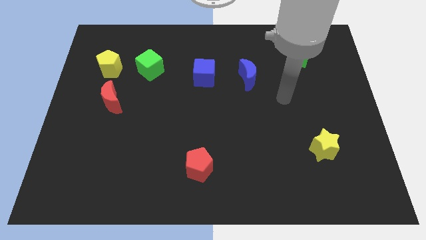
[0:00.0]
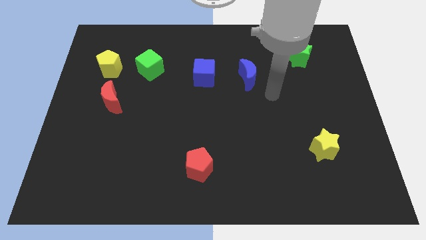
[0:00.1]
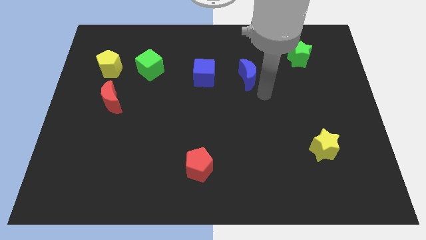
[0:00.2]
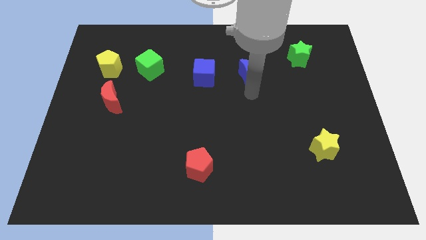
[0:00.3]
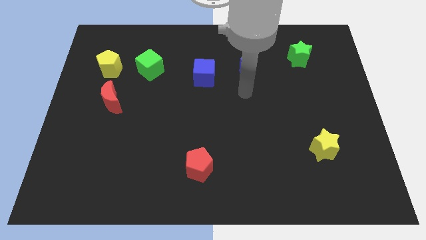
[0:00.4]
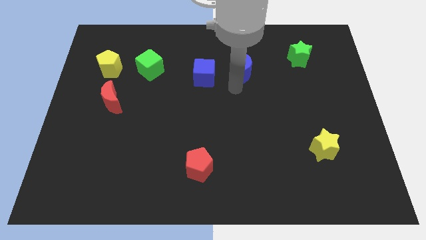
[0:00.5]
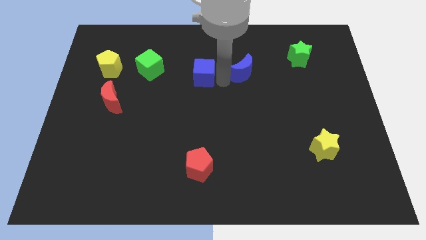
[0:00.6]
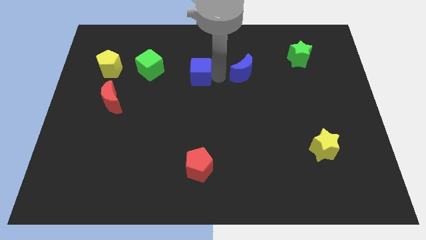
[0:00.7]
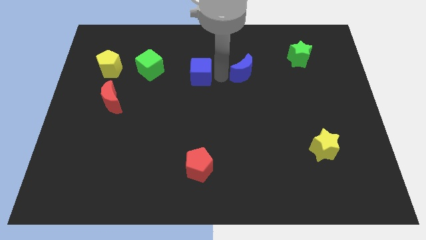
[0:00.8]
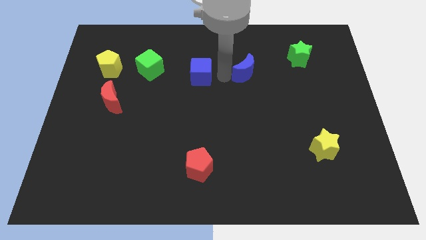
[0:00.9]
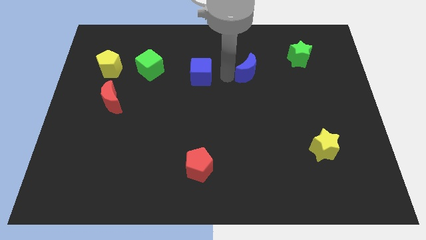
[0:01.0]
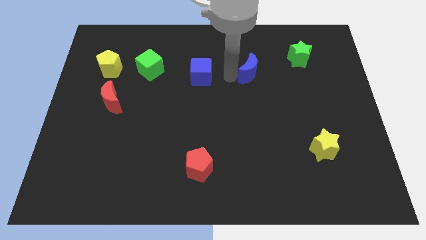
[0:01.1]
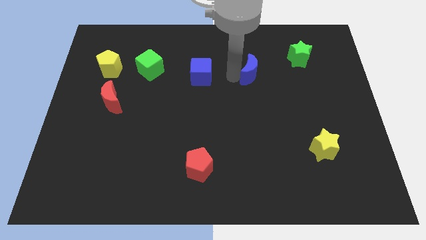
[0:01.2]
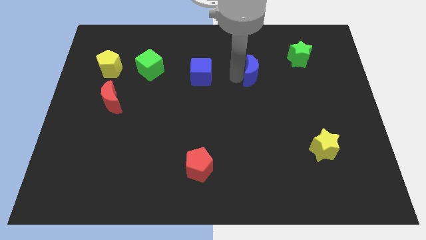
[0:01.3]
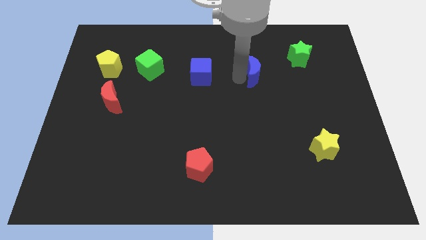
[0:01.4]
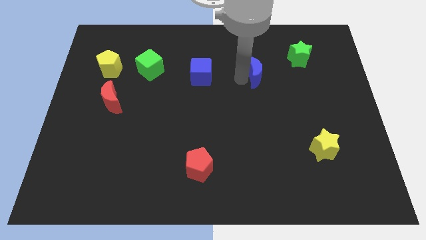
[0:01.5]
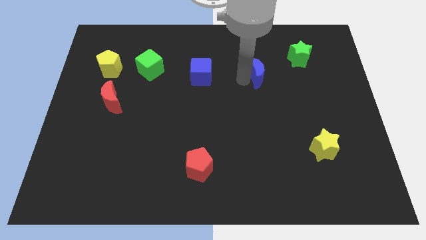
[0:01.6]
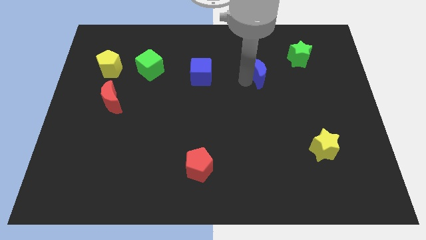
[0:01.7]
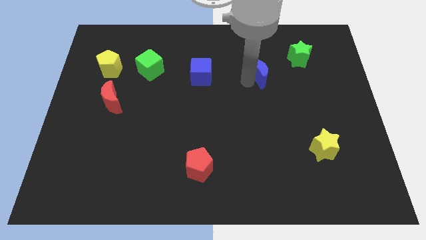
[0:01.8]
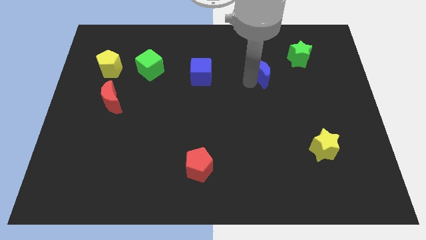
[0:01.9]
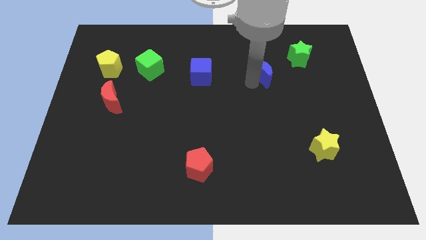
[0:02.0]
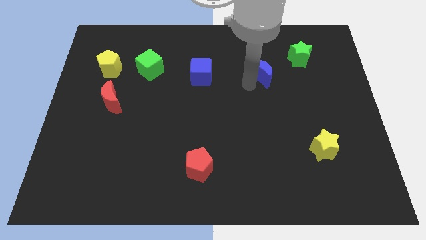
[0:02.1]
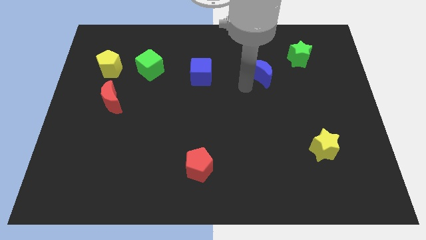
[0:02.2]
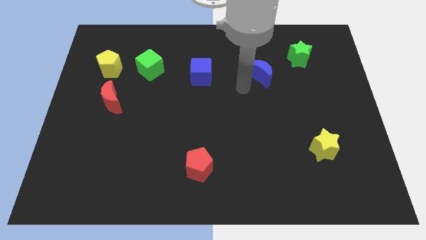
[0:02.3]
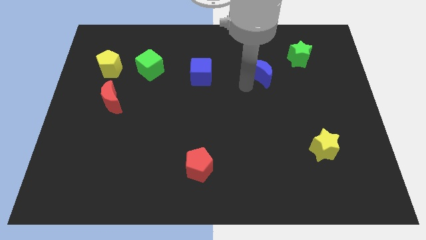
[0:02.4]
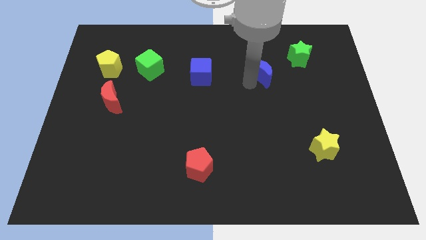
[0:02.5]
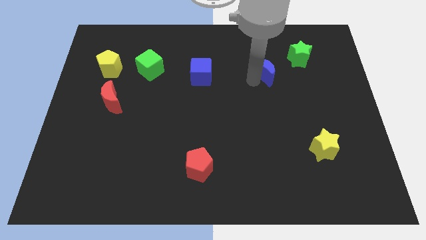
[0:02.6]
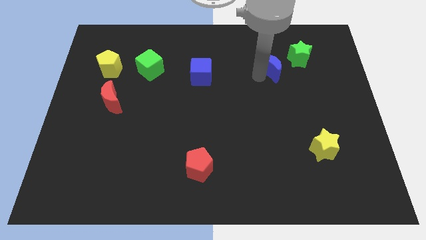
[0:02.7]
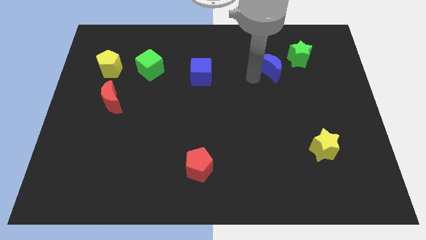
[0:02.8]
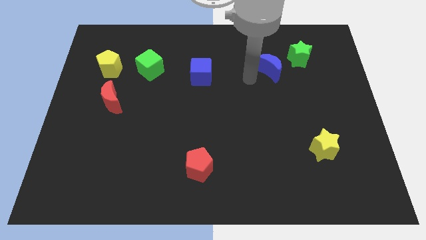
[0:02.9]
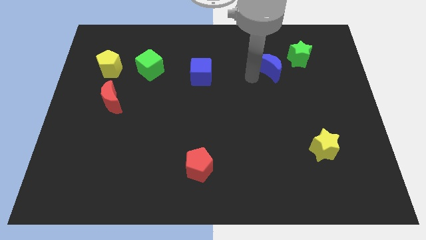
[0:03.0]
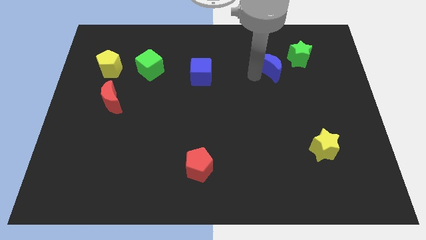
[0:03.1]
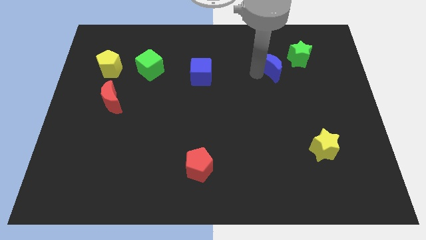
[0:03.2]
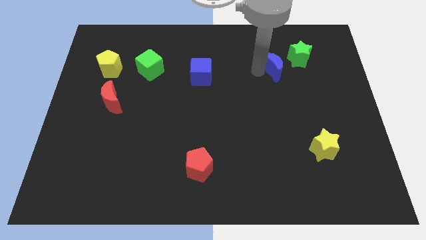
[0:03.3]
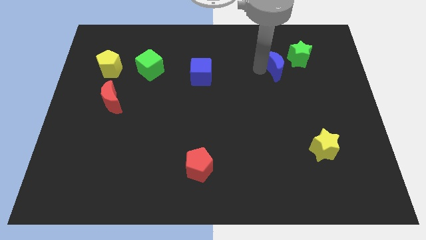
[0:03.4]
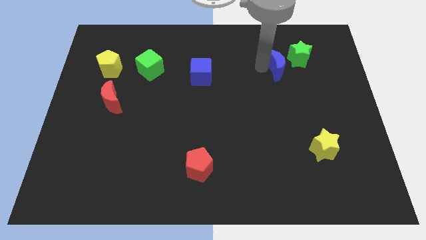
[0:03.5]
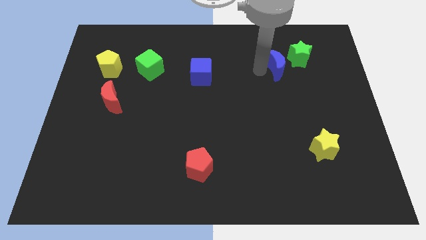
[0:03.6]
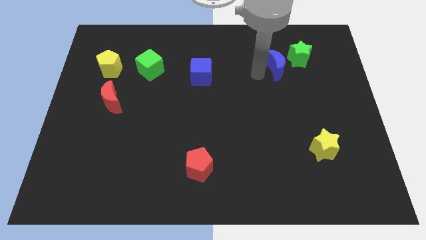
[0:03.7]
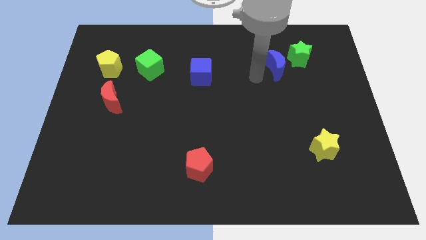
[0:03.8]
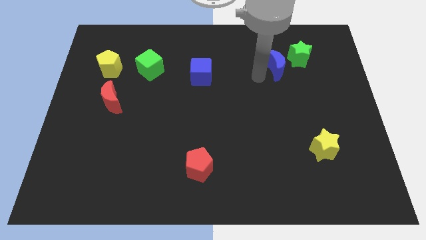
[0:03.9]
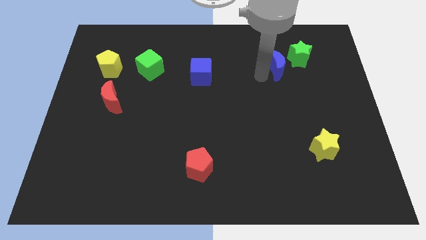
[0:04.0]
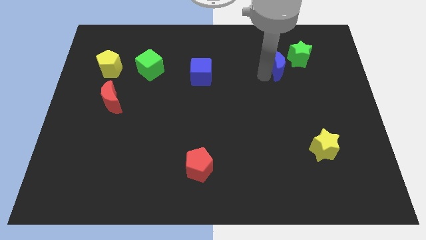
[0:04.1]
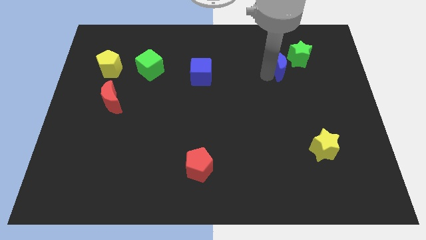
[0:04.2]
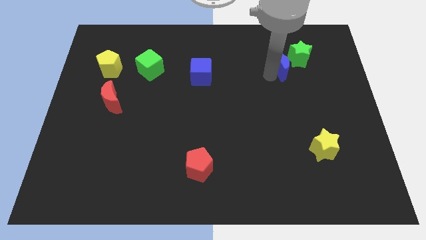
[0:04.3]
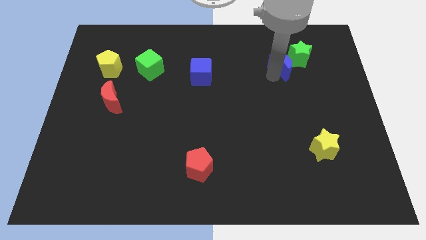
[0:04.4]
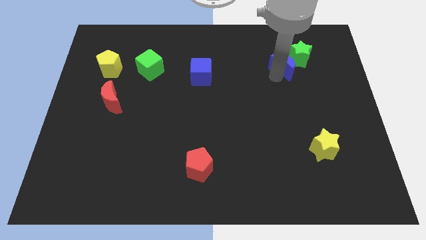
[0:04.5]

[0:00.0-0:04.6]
move the blue moon to the green star

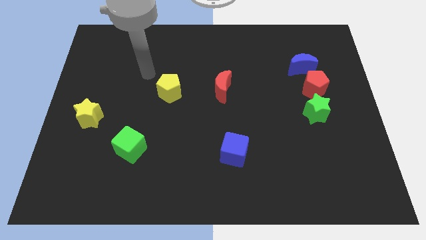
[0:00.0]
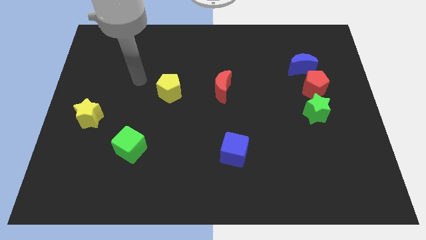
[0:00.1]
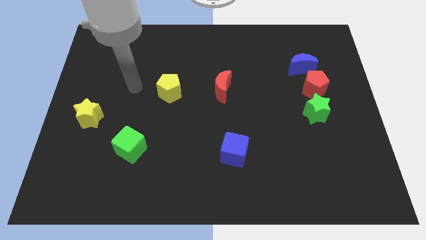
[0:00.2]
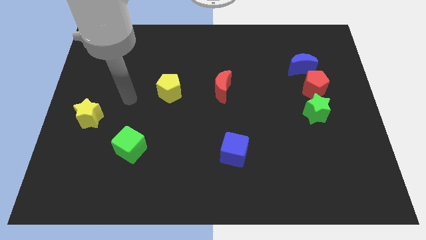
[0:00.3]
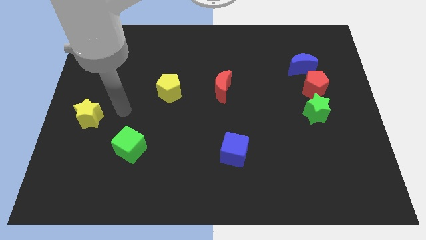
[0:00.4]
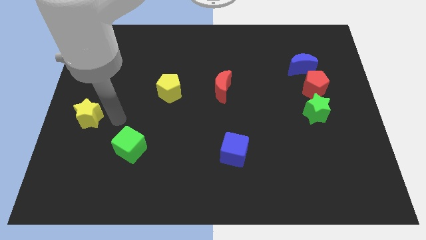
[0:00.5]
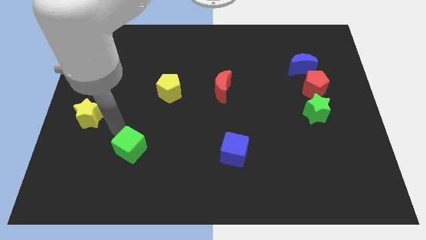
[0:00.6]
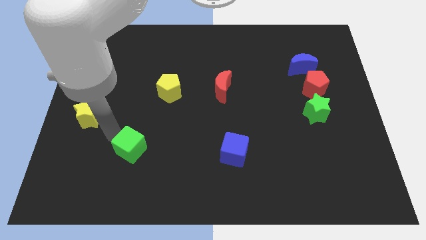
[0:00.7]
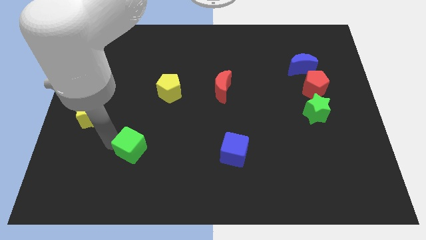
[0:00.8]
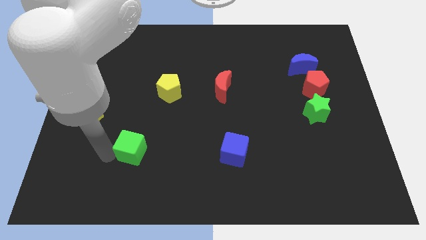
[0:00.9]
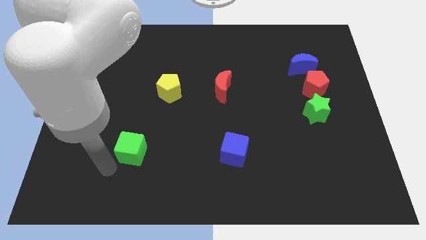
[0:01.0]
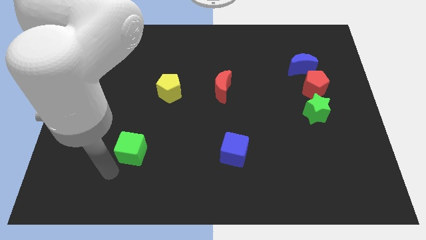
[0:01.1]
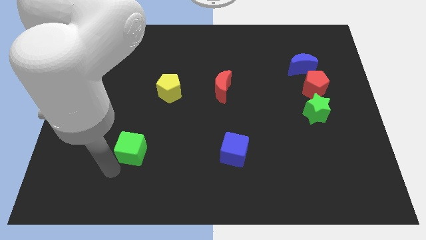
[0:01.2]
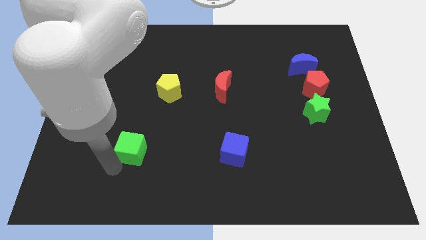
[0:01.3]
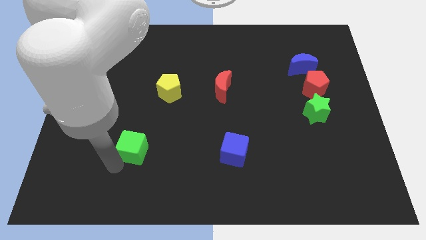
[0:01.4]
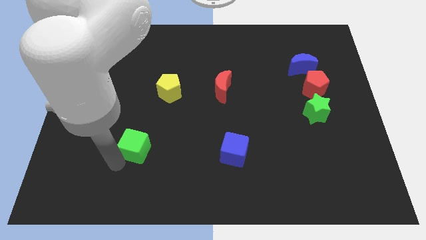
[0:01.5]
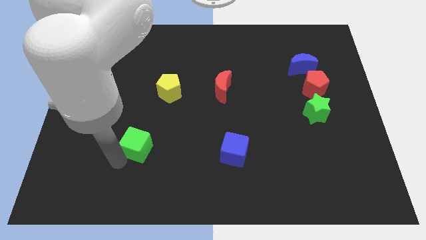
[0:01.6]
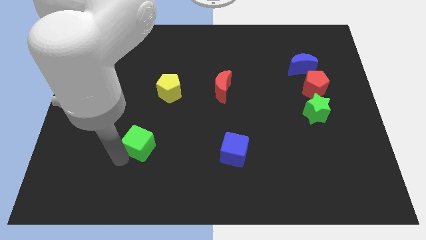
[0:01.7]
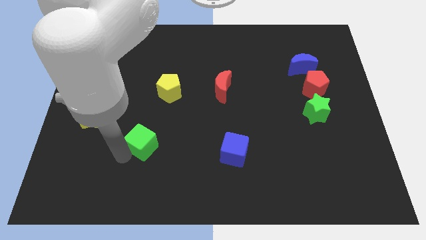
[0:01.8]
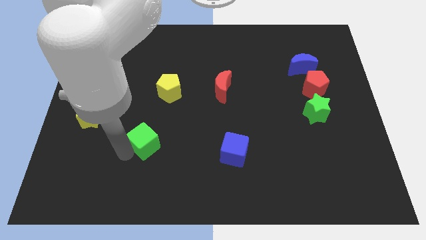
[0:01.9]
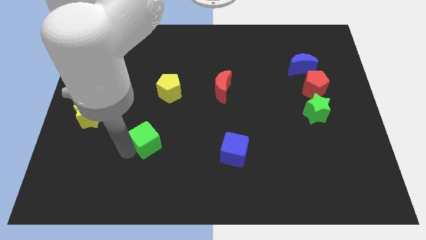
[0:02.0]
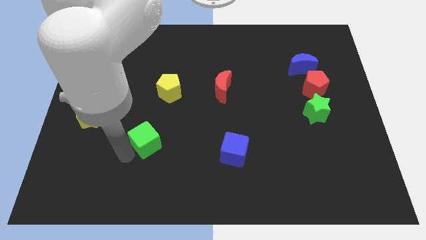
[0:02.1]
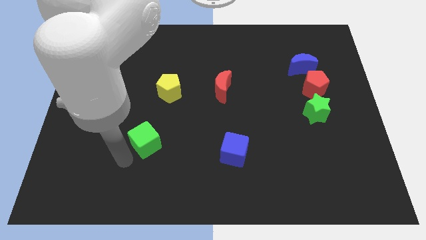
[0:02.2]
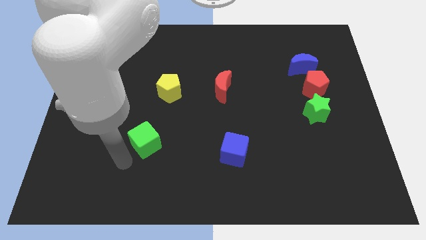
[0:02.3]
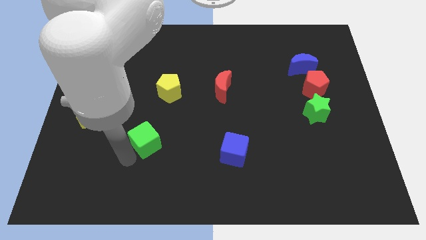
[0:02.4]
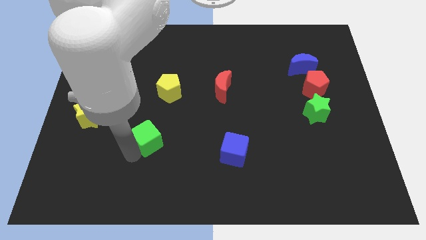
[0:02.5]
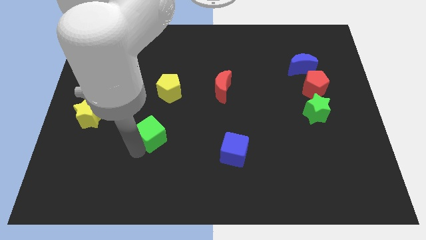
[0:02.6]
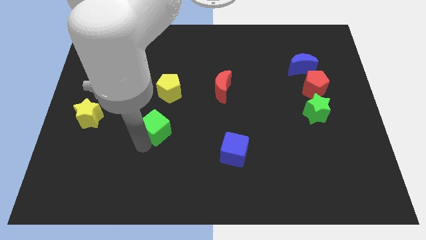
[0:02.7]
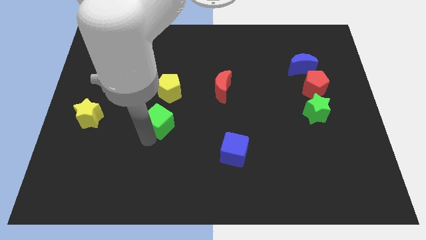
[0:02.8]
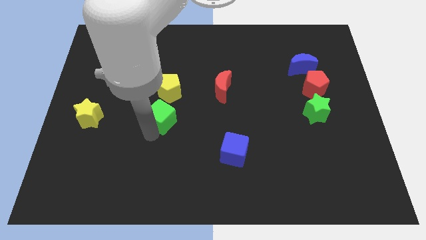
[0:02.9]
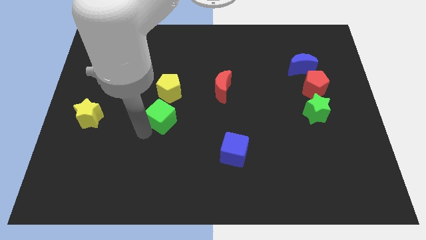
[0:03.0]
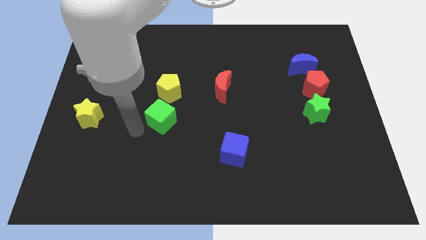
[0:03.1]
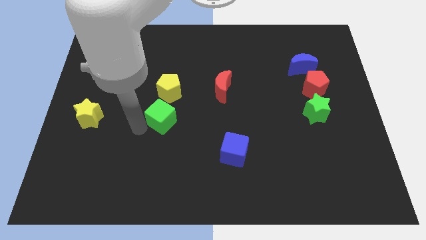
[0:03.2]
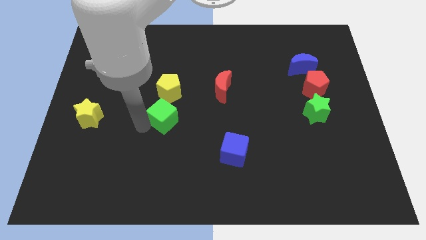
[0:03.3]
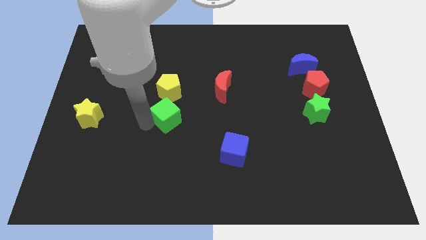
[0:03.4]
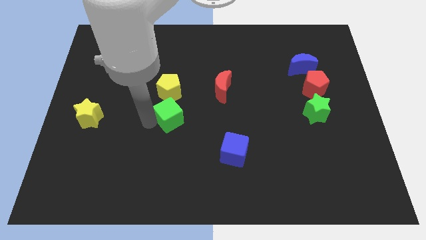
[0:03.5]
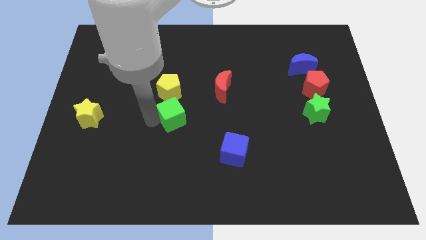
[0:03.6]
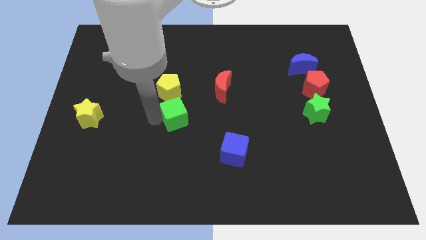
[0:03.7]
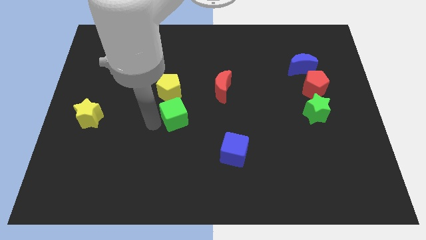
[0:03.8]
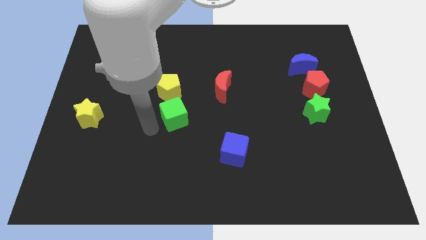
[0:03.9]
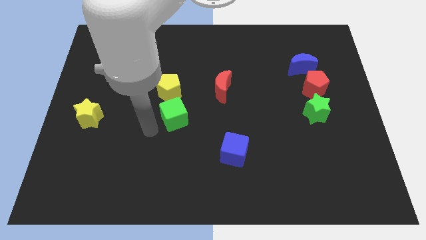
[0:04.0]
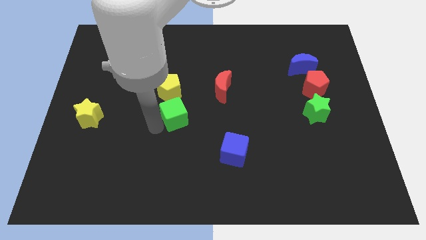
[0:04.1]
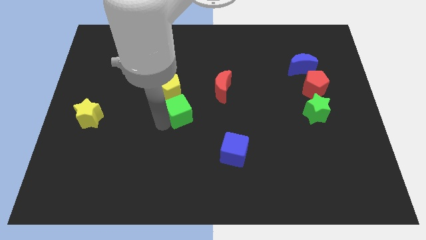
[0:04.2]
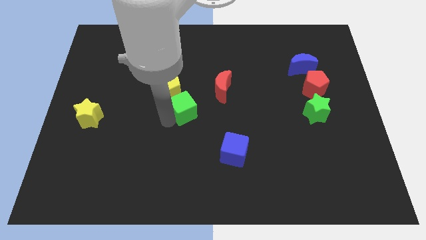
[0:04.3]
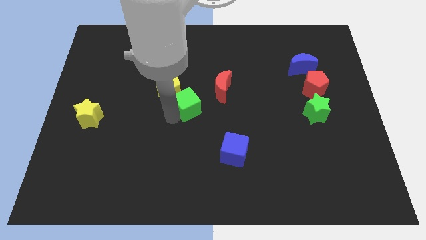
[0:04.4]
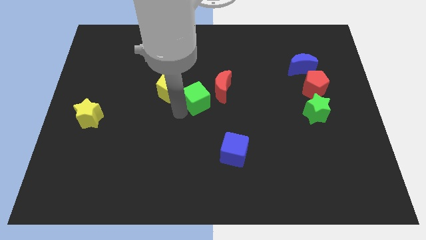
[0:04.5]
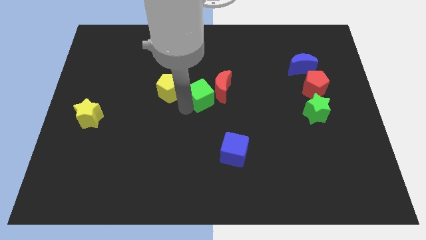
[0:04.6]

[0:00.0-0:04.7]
move the green cube next to the red moon
